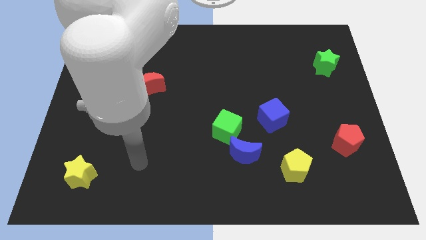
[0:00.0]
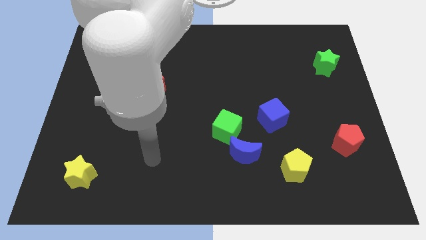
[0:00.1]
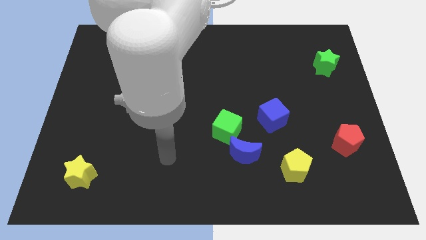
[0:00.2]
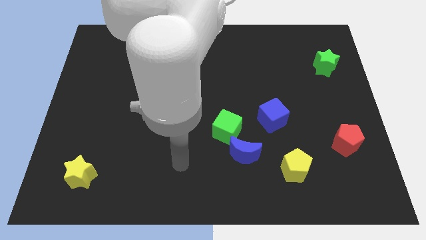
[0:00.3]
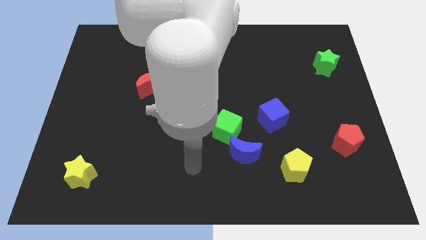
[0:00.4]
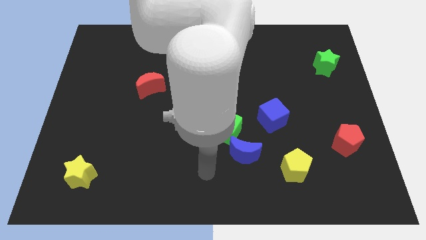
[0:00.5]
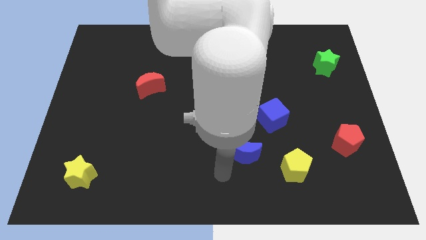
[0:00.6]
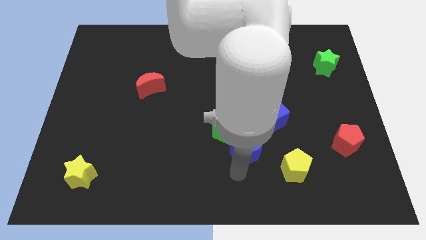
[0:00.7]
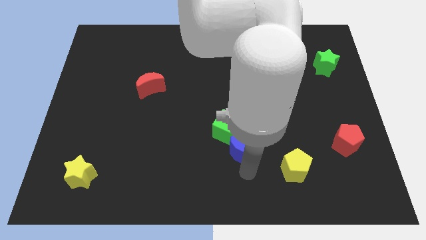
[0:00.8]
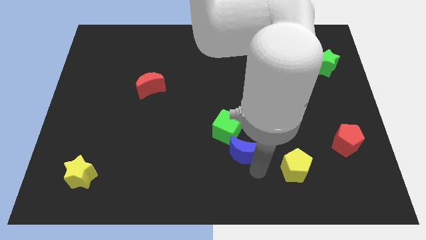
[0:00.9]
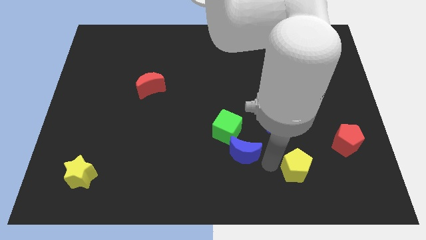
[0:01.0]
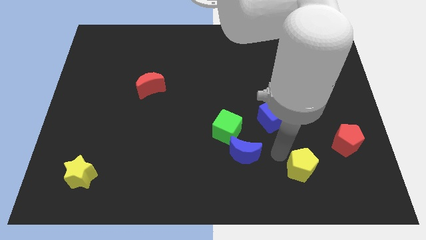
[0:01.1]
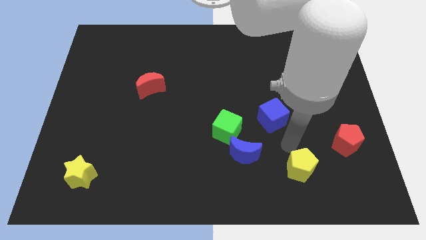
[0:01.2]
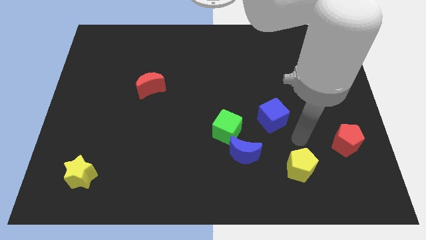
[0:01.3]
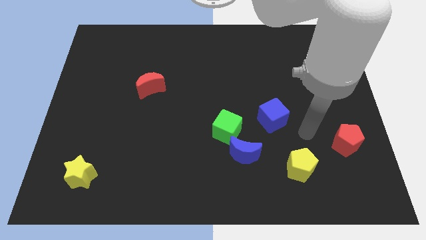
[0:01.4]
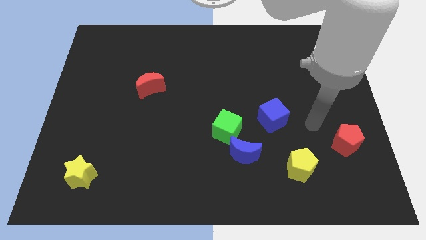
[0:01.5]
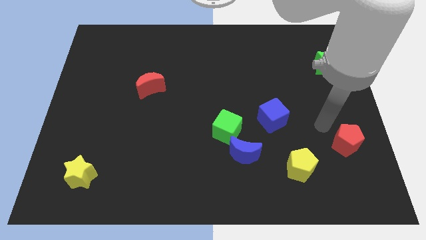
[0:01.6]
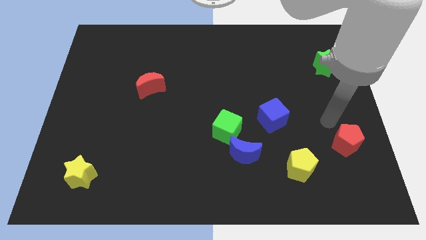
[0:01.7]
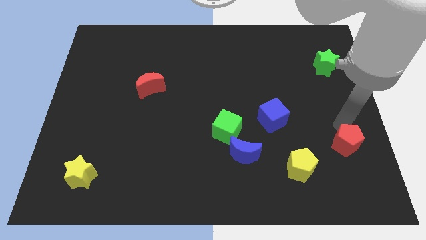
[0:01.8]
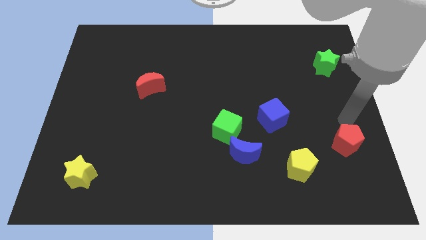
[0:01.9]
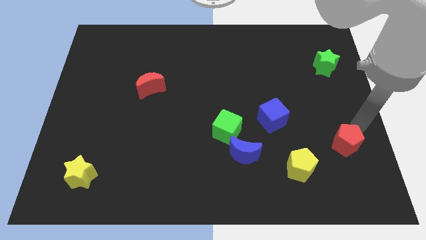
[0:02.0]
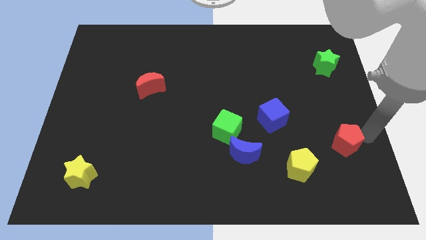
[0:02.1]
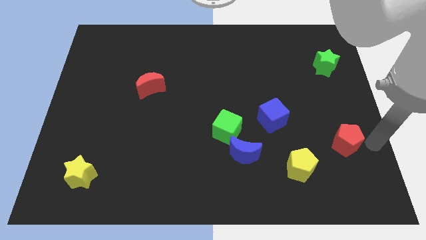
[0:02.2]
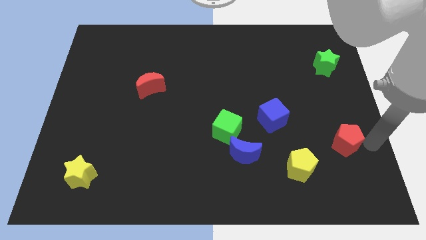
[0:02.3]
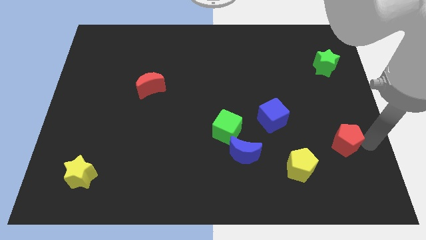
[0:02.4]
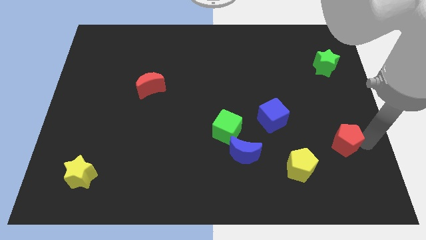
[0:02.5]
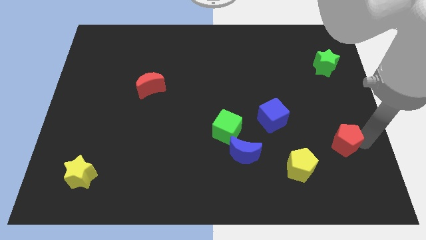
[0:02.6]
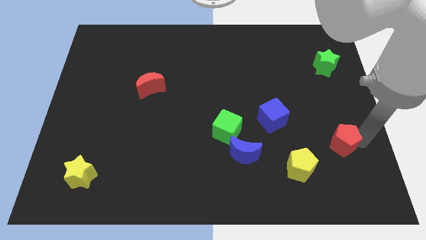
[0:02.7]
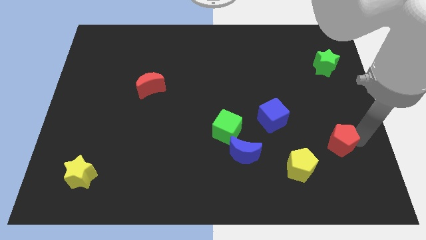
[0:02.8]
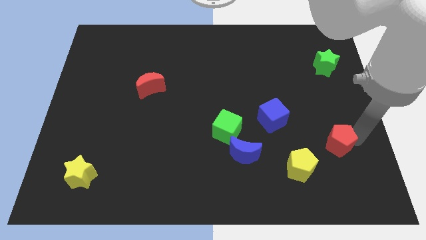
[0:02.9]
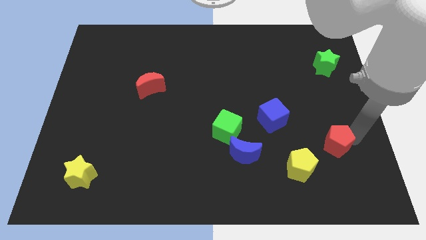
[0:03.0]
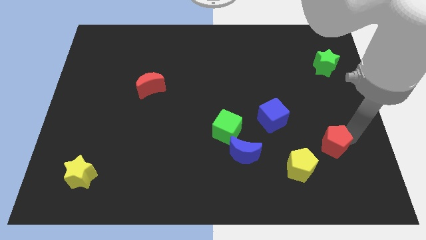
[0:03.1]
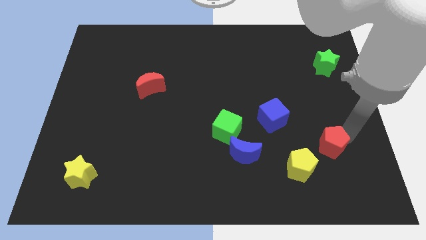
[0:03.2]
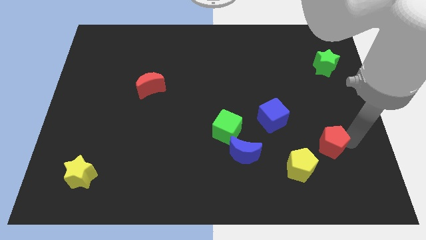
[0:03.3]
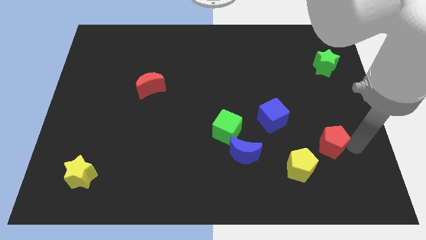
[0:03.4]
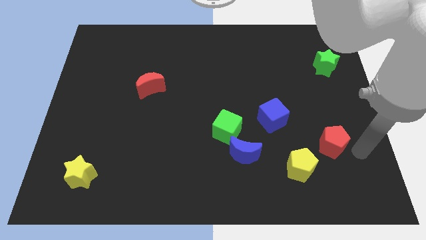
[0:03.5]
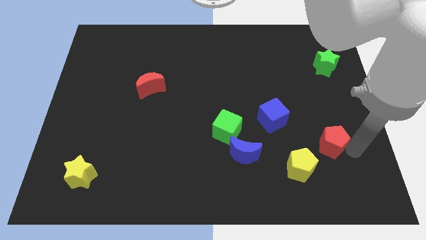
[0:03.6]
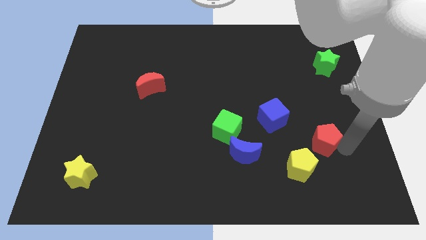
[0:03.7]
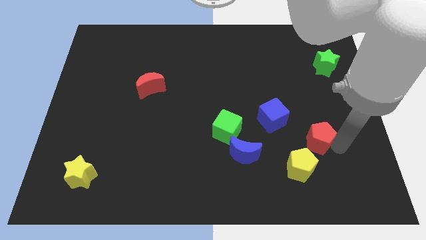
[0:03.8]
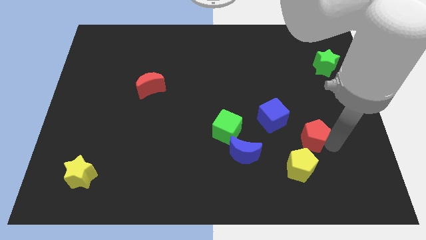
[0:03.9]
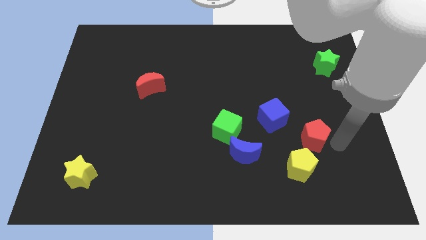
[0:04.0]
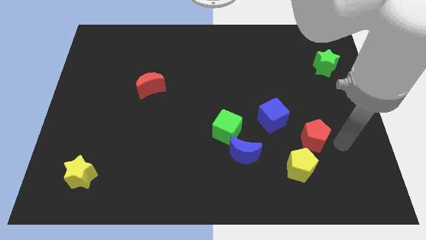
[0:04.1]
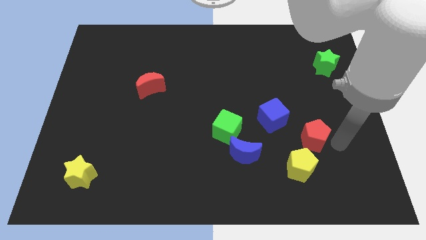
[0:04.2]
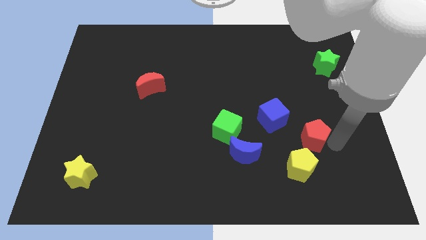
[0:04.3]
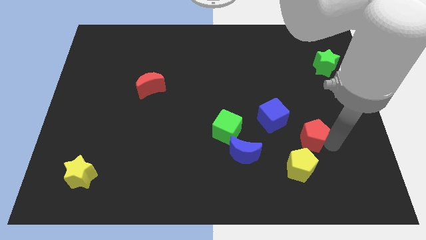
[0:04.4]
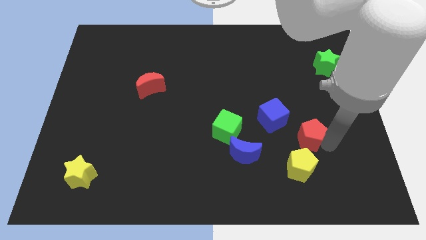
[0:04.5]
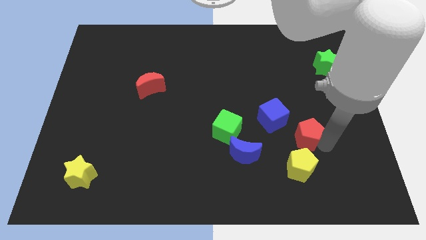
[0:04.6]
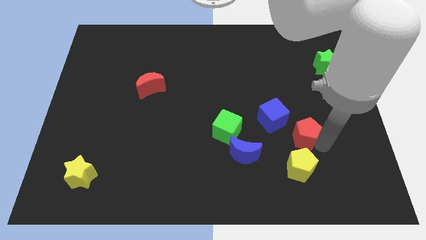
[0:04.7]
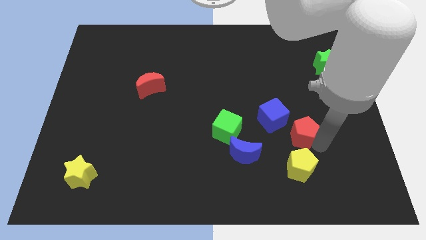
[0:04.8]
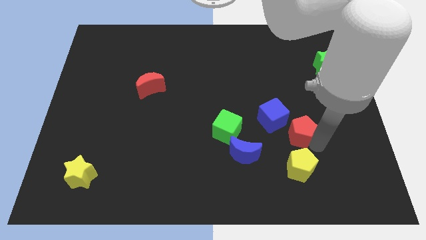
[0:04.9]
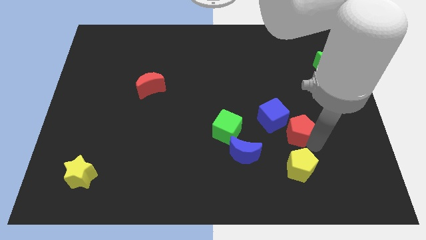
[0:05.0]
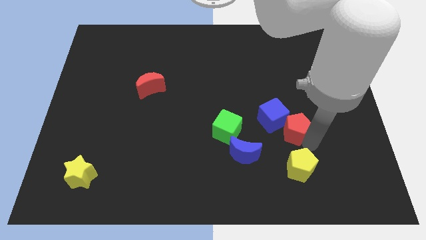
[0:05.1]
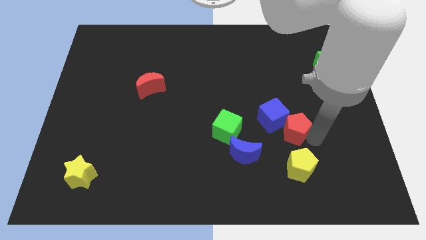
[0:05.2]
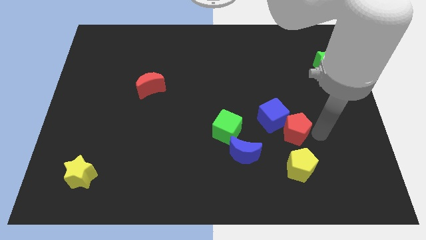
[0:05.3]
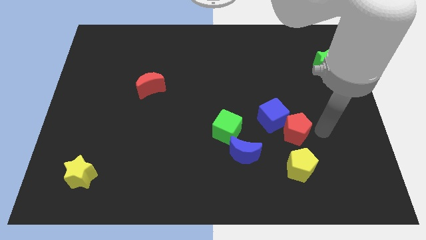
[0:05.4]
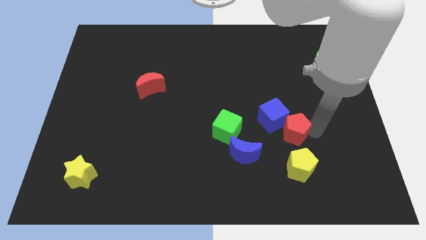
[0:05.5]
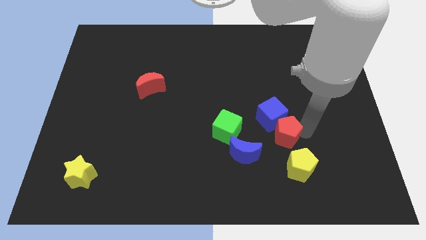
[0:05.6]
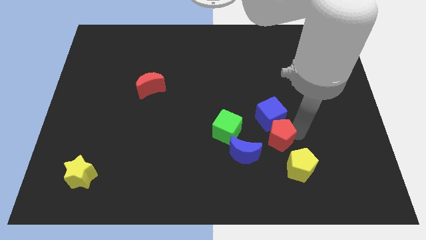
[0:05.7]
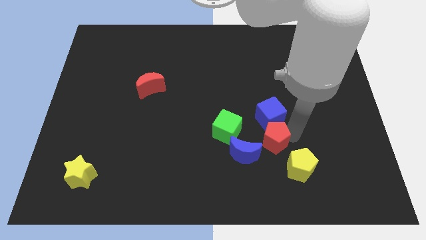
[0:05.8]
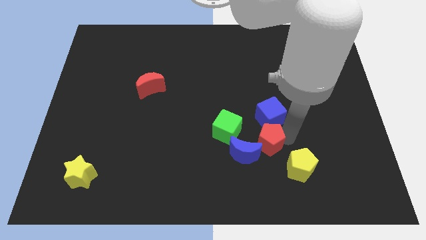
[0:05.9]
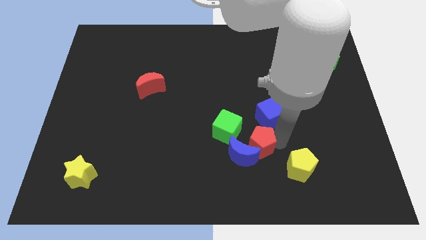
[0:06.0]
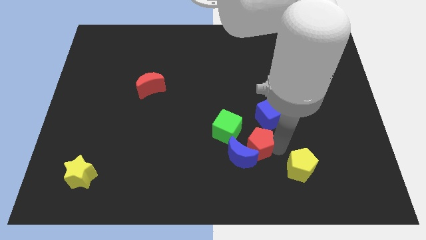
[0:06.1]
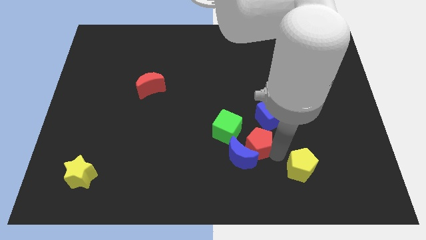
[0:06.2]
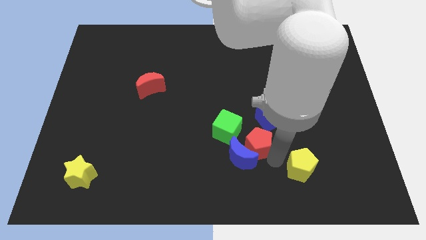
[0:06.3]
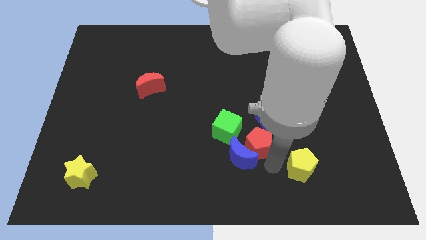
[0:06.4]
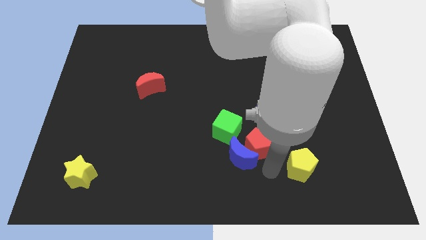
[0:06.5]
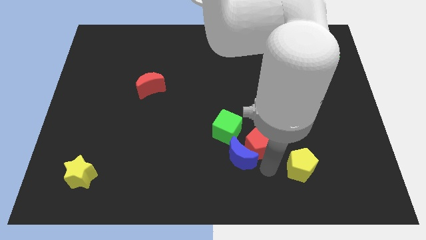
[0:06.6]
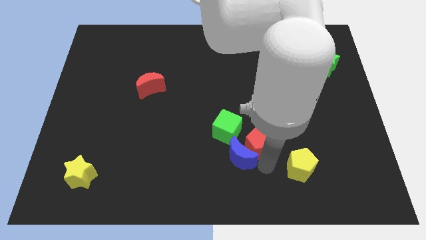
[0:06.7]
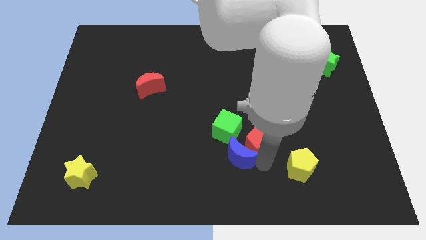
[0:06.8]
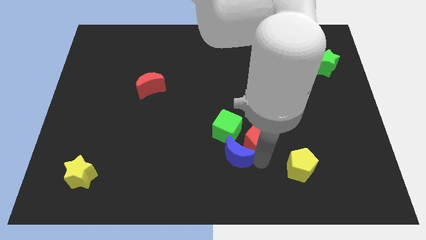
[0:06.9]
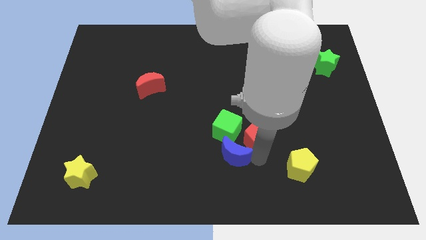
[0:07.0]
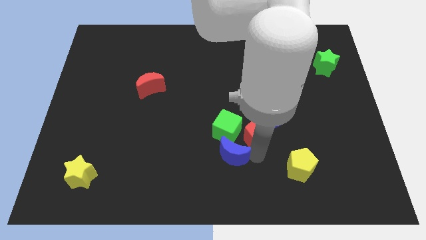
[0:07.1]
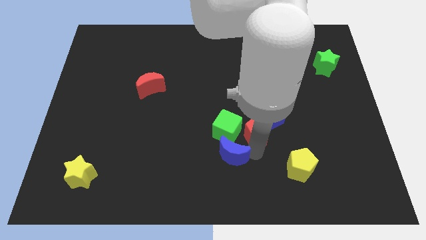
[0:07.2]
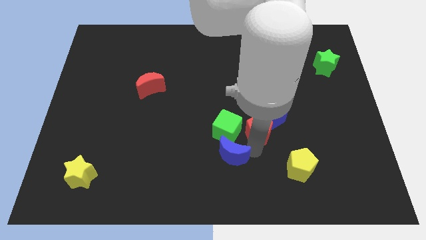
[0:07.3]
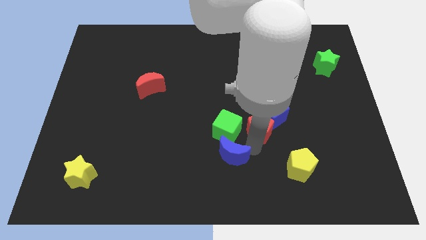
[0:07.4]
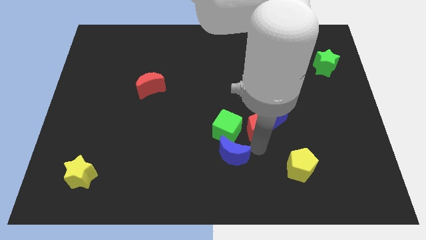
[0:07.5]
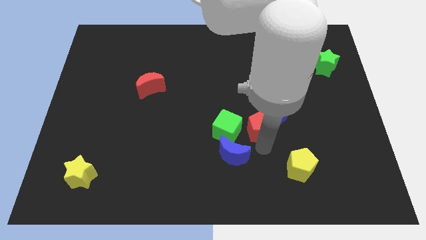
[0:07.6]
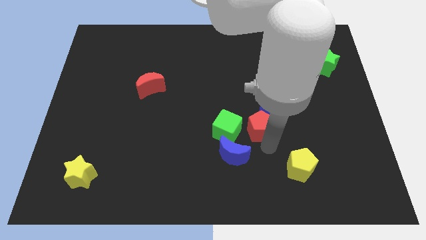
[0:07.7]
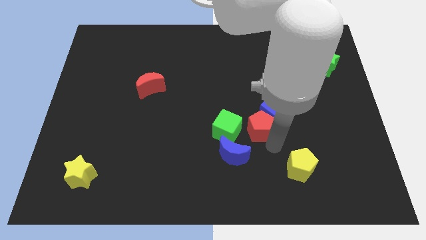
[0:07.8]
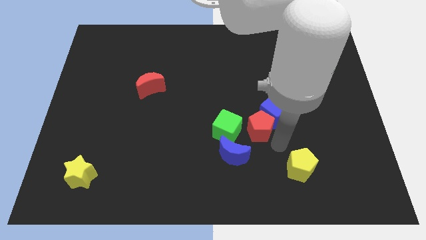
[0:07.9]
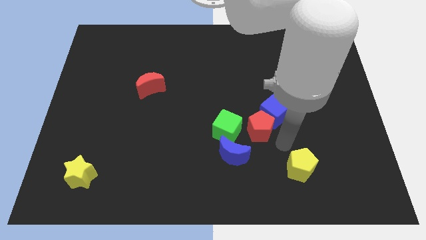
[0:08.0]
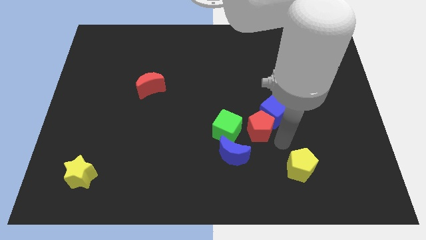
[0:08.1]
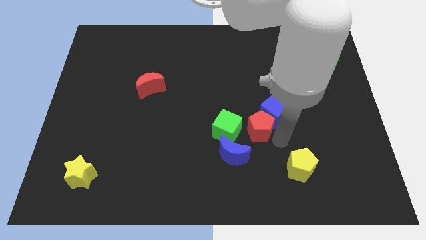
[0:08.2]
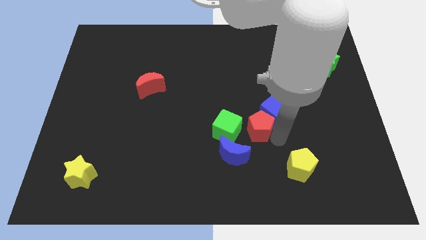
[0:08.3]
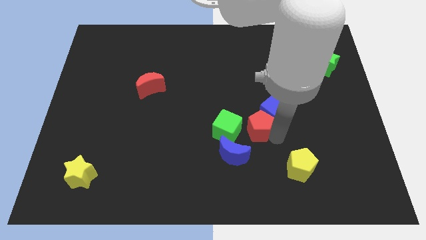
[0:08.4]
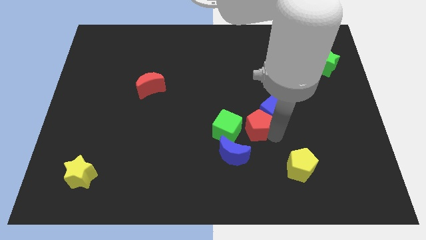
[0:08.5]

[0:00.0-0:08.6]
push the red pentagon to the center
